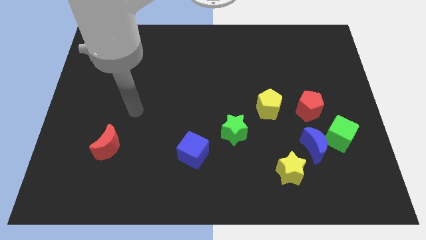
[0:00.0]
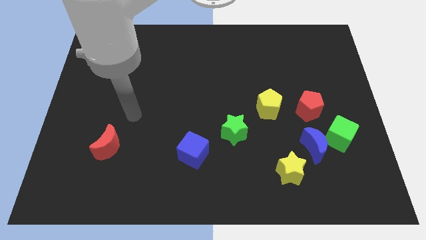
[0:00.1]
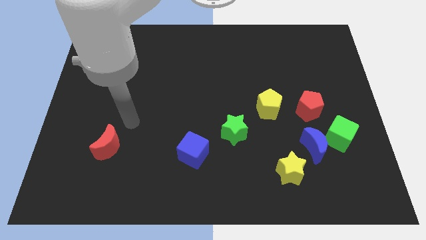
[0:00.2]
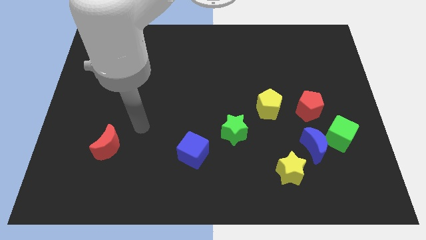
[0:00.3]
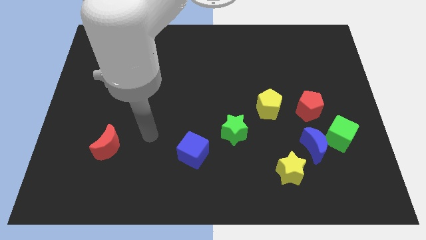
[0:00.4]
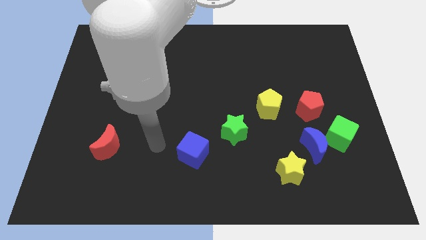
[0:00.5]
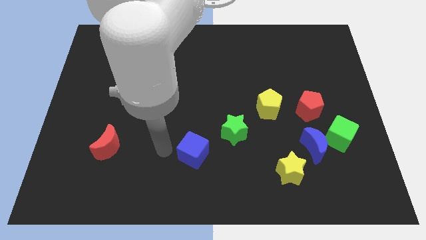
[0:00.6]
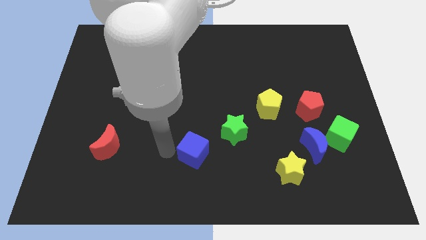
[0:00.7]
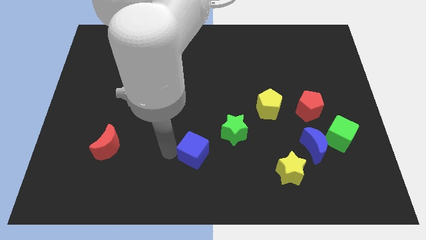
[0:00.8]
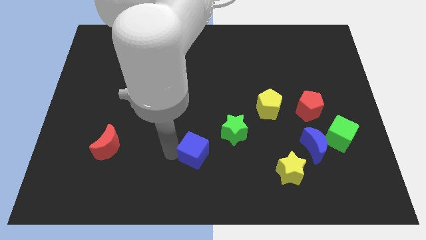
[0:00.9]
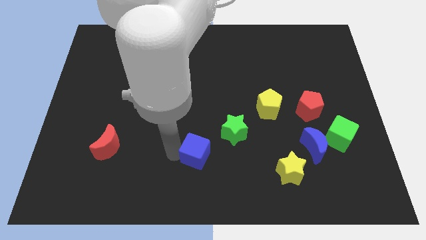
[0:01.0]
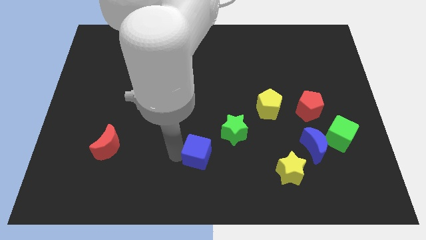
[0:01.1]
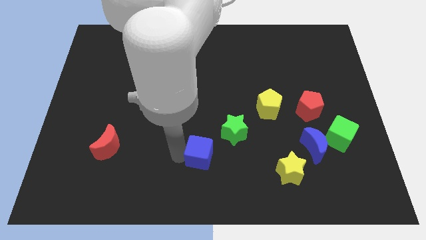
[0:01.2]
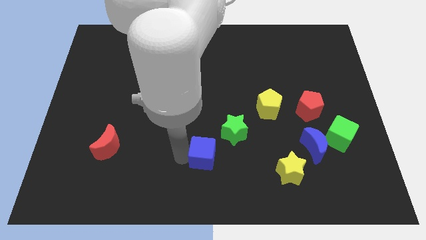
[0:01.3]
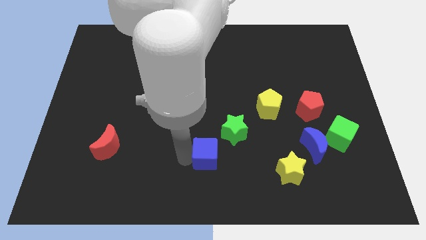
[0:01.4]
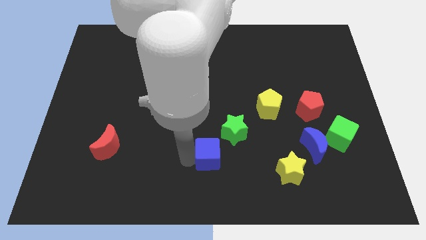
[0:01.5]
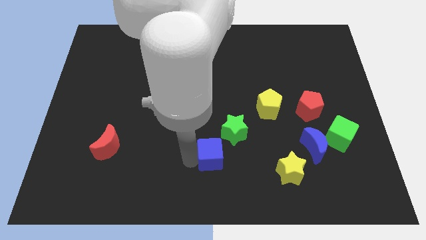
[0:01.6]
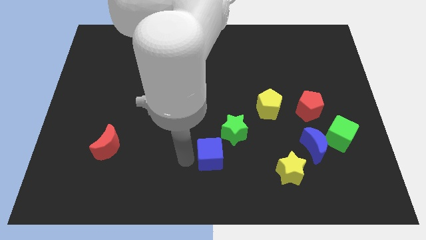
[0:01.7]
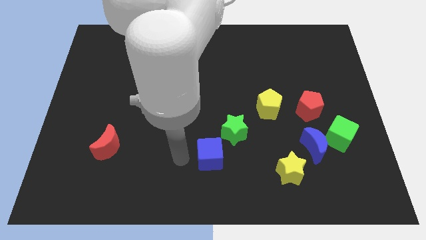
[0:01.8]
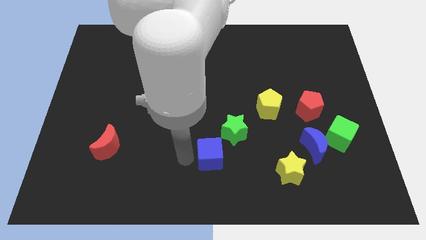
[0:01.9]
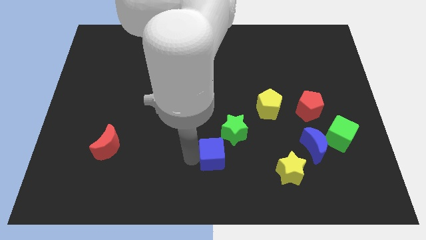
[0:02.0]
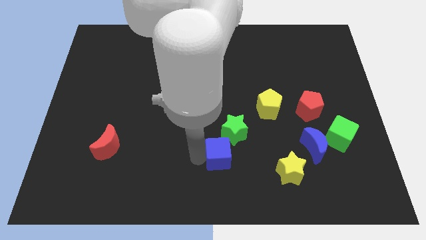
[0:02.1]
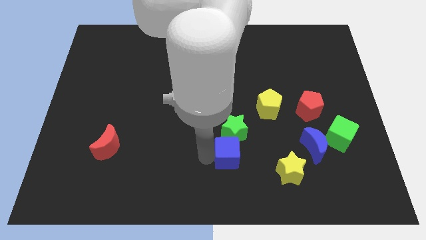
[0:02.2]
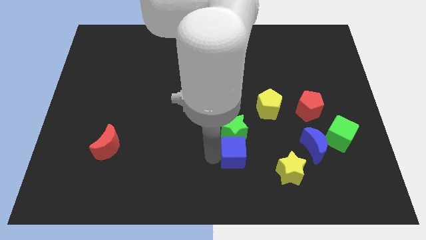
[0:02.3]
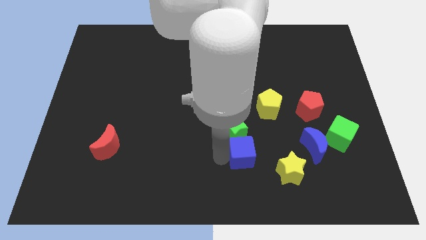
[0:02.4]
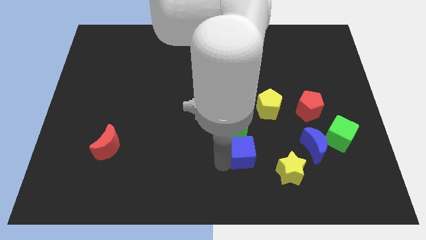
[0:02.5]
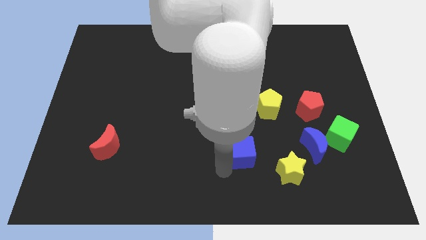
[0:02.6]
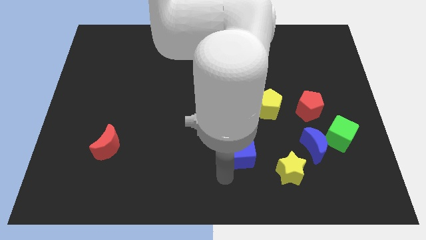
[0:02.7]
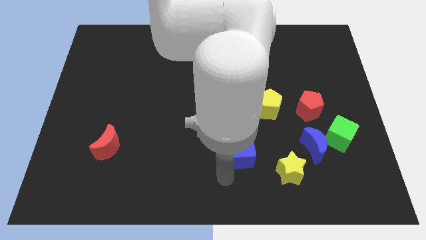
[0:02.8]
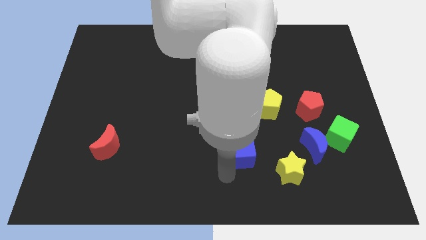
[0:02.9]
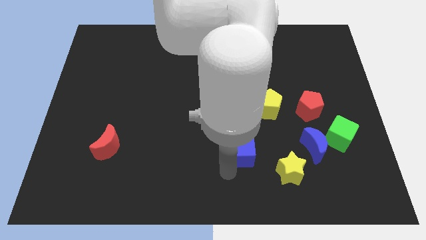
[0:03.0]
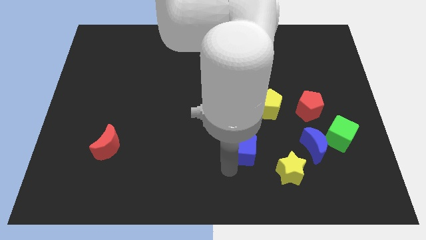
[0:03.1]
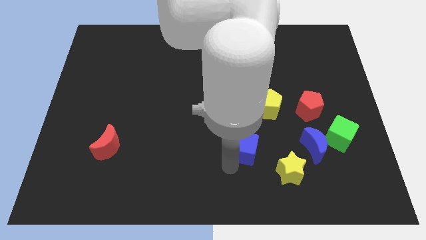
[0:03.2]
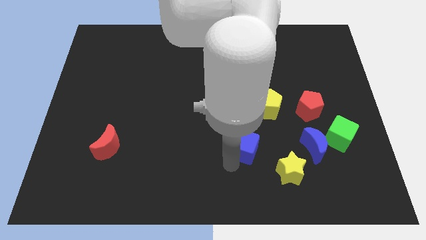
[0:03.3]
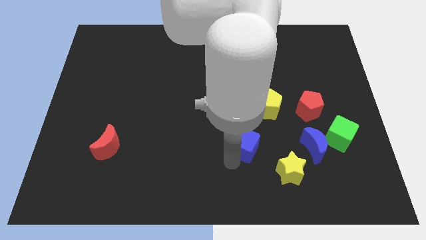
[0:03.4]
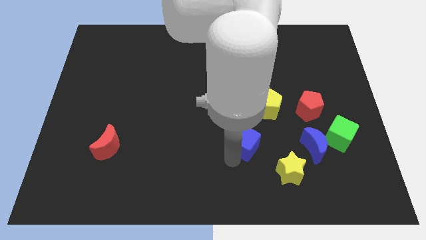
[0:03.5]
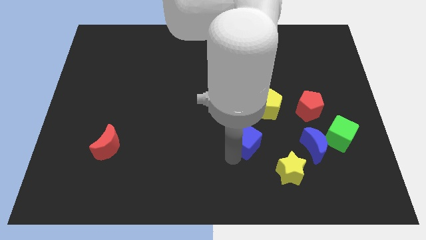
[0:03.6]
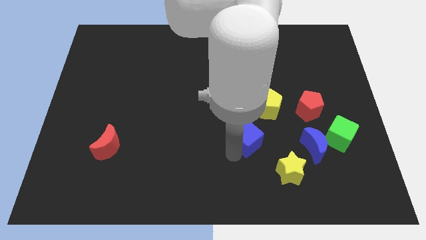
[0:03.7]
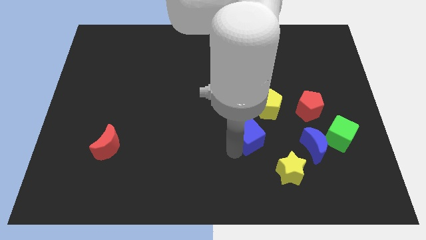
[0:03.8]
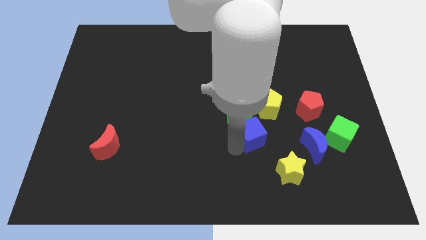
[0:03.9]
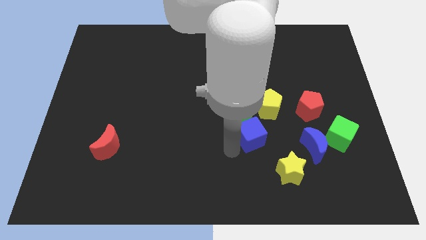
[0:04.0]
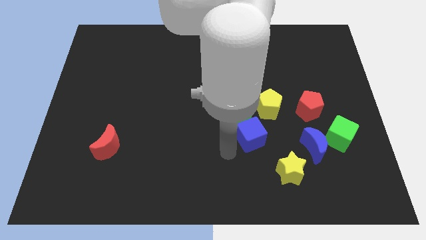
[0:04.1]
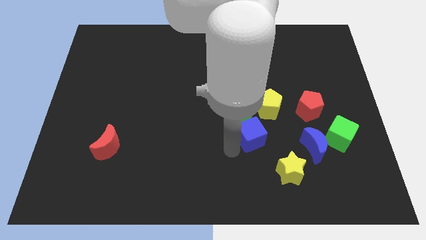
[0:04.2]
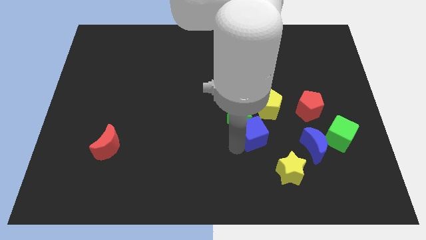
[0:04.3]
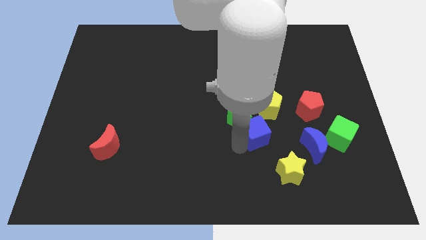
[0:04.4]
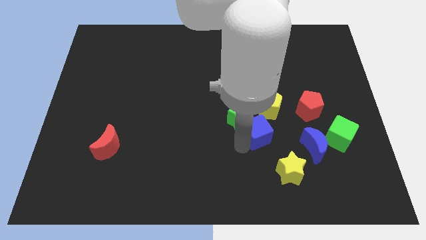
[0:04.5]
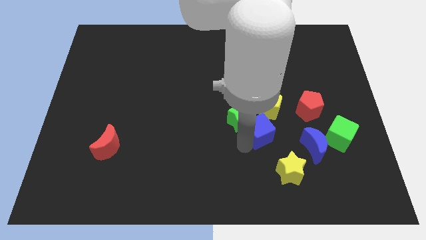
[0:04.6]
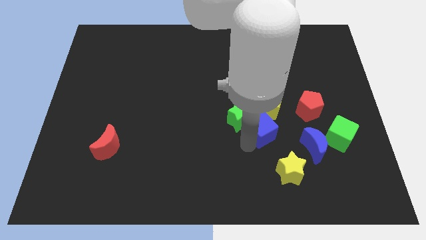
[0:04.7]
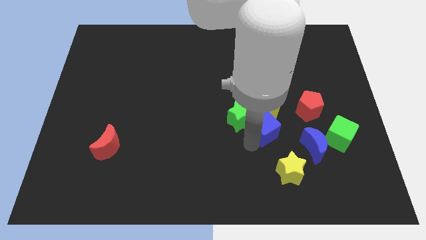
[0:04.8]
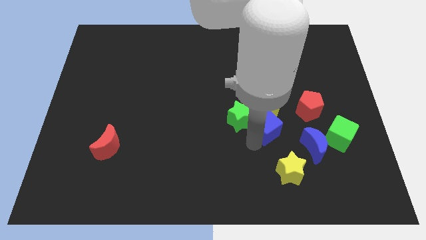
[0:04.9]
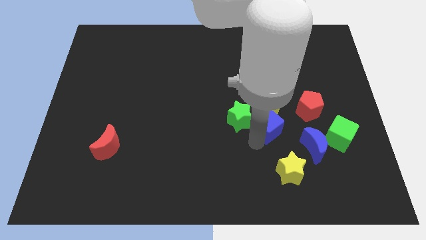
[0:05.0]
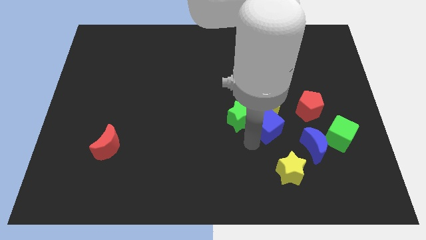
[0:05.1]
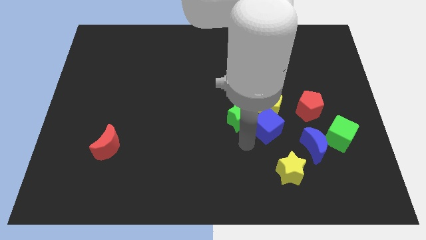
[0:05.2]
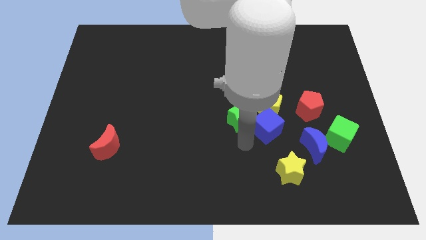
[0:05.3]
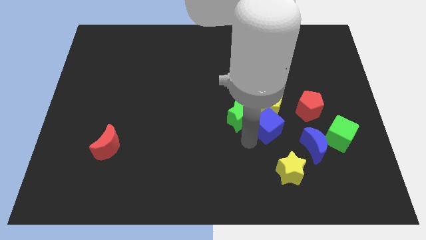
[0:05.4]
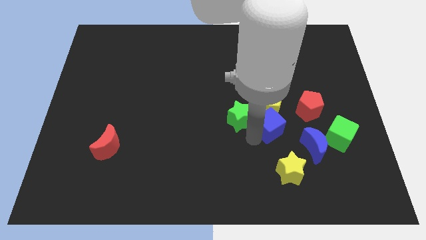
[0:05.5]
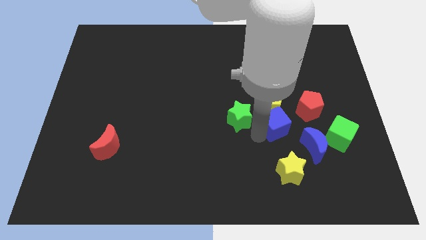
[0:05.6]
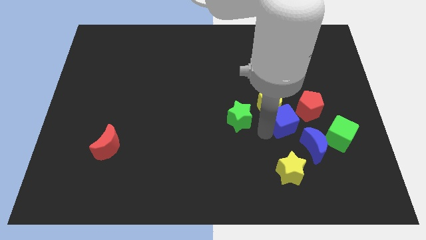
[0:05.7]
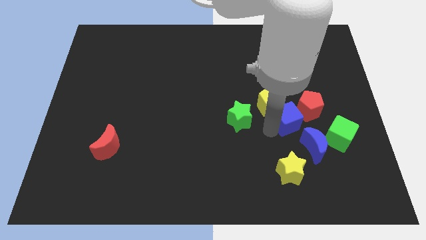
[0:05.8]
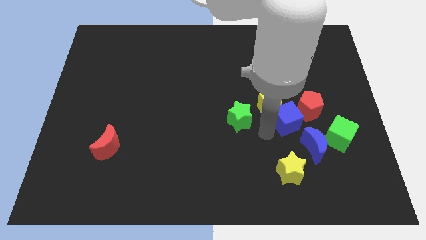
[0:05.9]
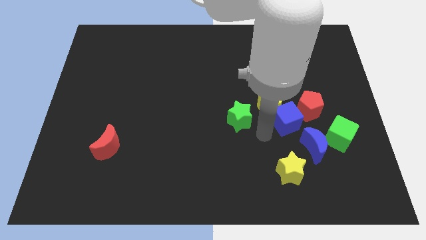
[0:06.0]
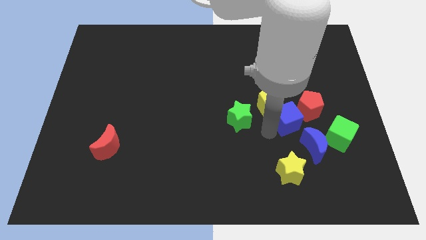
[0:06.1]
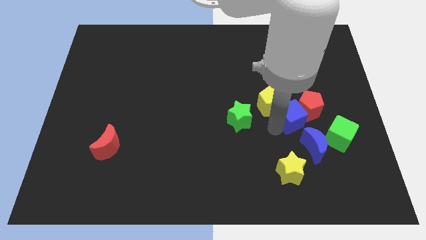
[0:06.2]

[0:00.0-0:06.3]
put the blue cube to the red pentagon

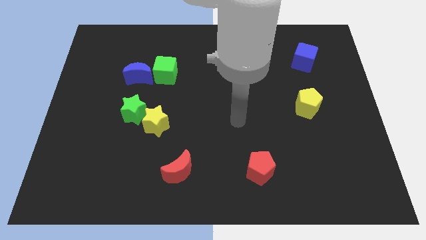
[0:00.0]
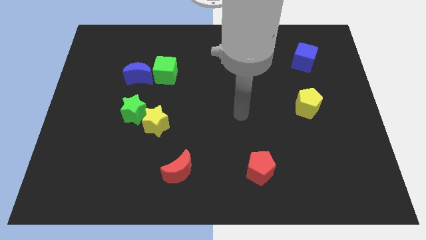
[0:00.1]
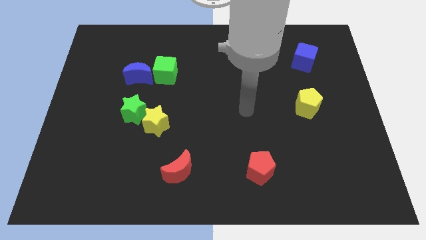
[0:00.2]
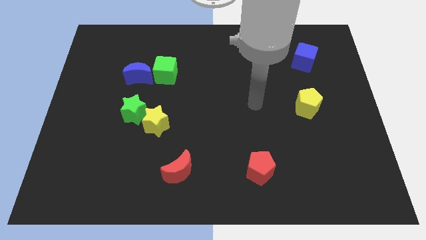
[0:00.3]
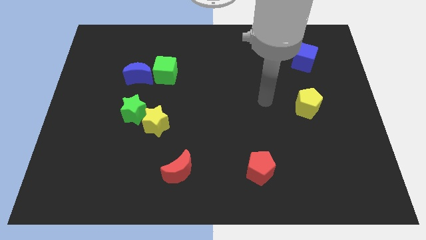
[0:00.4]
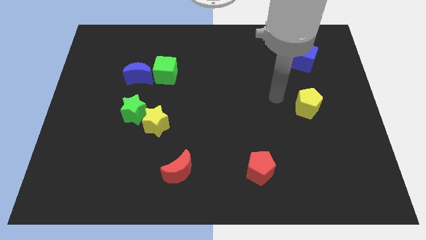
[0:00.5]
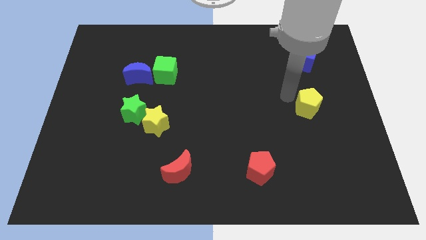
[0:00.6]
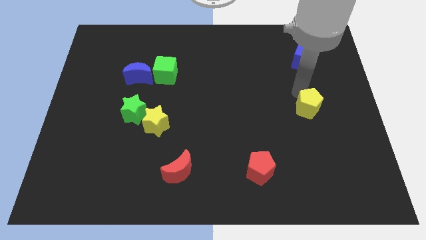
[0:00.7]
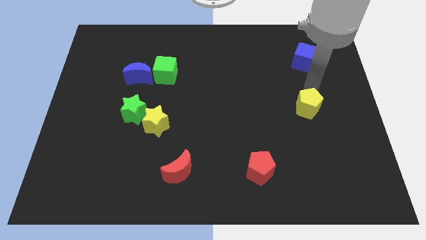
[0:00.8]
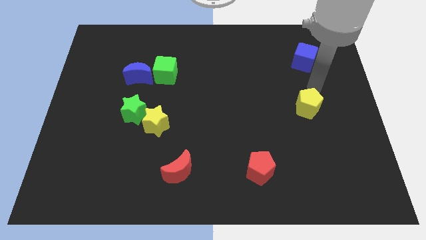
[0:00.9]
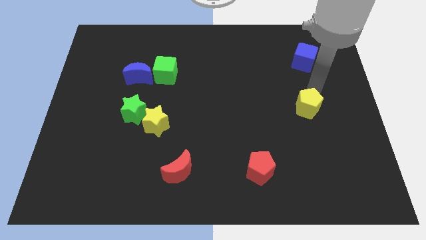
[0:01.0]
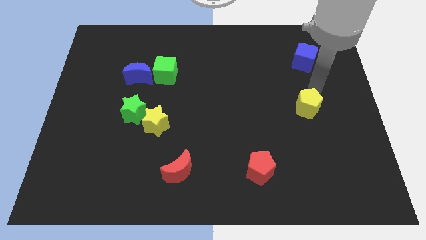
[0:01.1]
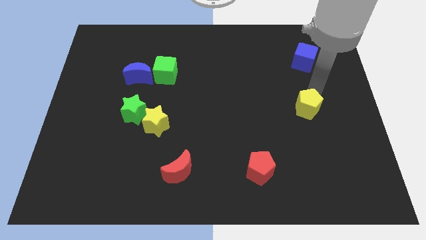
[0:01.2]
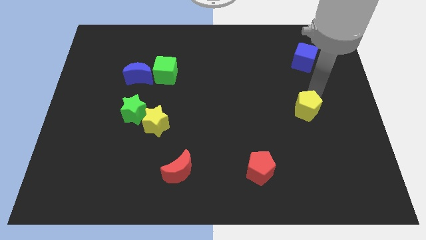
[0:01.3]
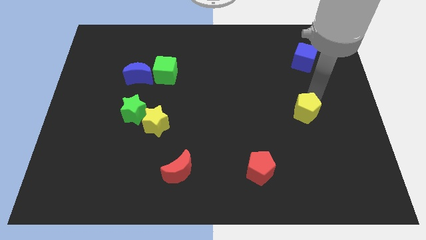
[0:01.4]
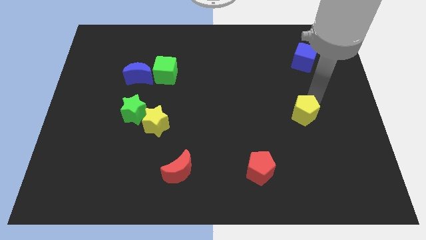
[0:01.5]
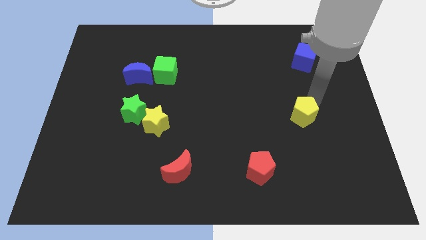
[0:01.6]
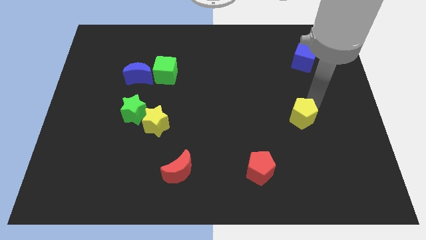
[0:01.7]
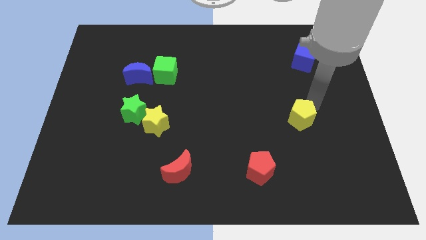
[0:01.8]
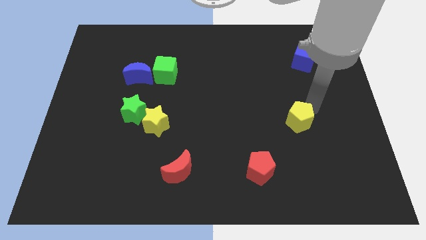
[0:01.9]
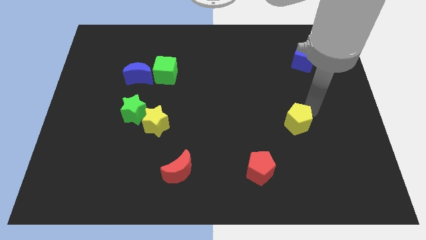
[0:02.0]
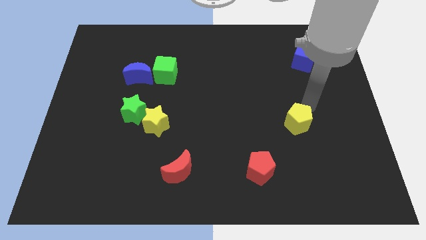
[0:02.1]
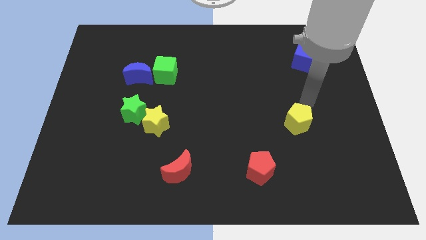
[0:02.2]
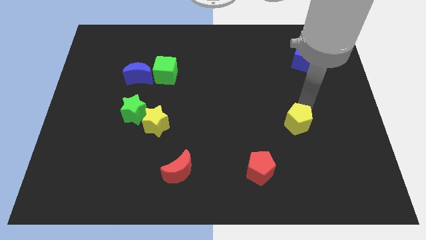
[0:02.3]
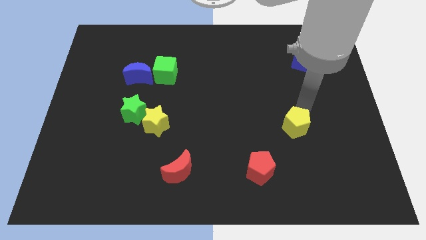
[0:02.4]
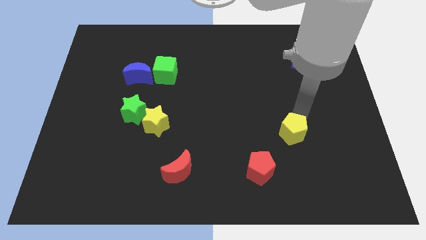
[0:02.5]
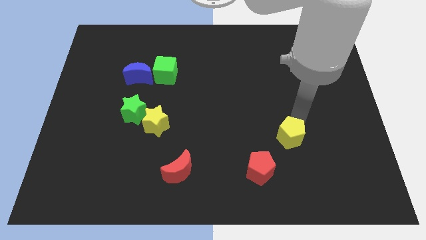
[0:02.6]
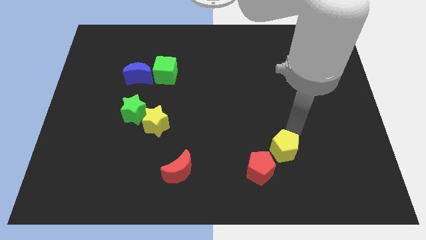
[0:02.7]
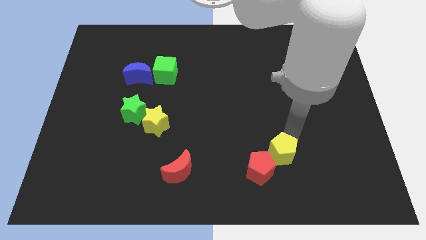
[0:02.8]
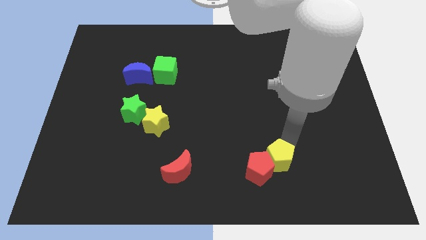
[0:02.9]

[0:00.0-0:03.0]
push the yellow pentagon next to the red pentagon
